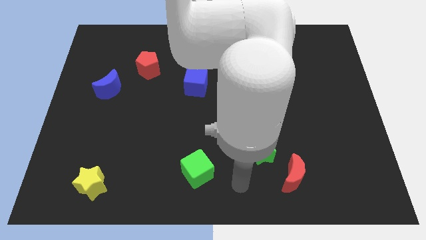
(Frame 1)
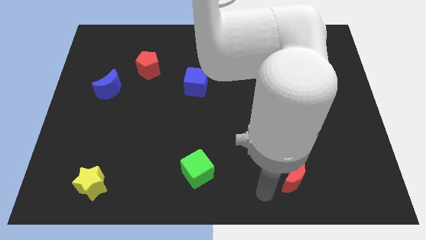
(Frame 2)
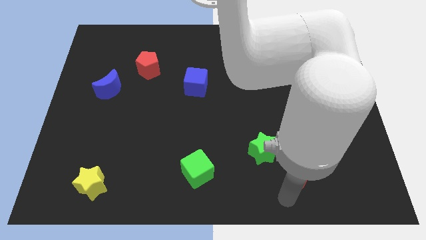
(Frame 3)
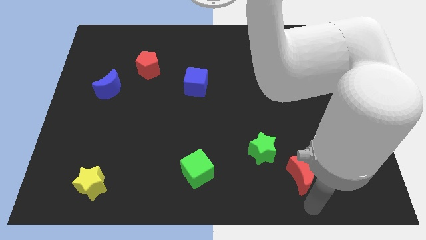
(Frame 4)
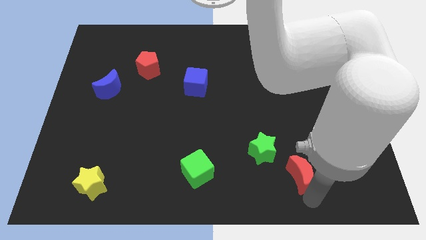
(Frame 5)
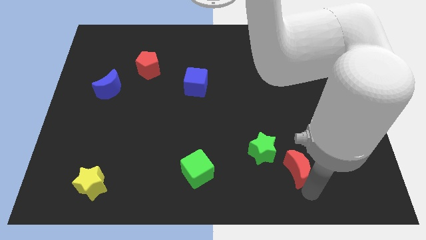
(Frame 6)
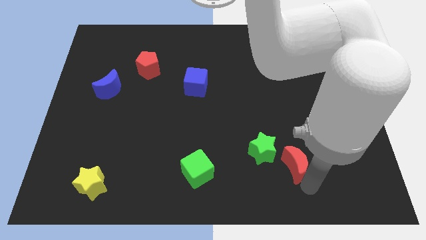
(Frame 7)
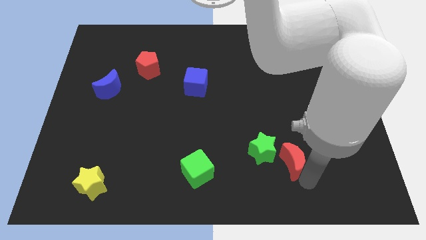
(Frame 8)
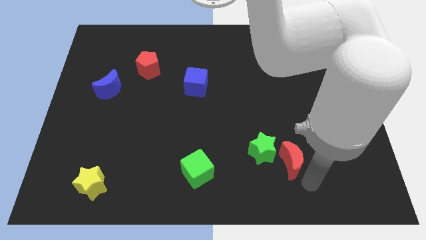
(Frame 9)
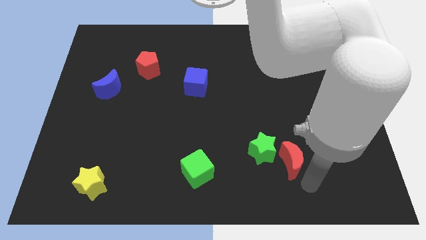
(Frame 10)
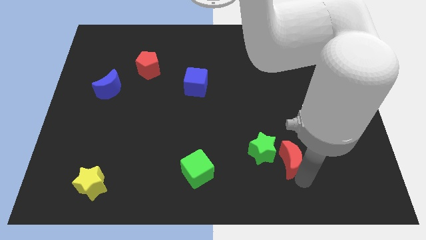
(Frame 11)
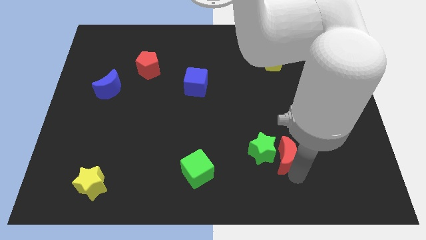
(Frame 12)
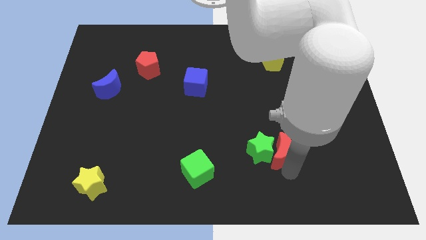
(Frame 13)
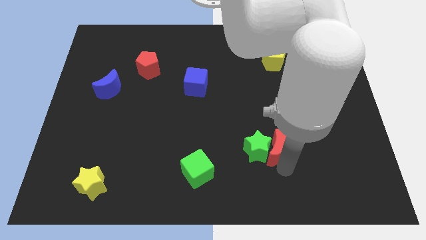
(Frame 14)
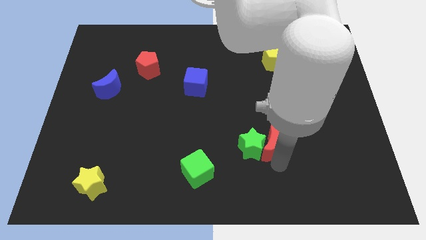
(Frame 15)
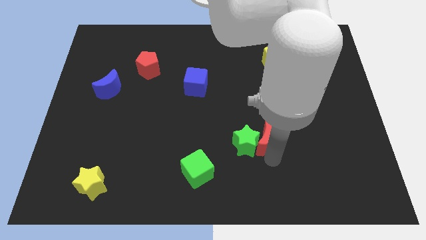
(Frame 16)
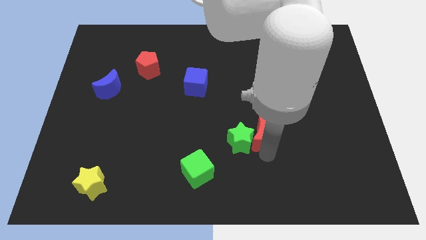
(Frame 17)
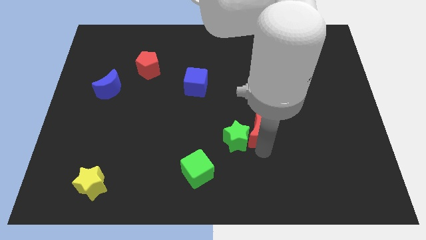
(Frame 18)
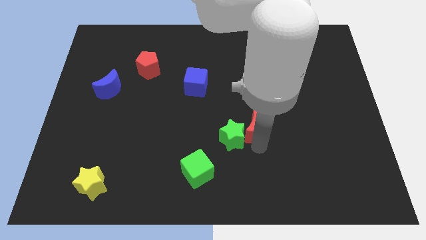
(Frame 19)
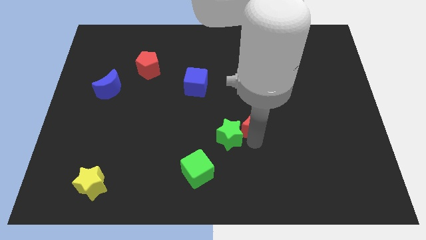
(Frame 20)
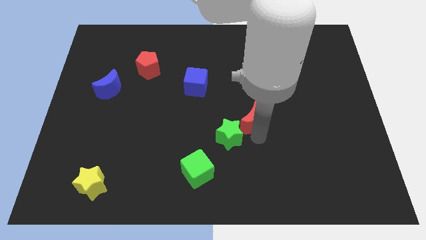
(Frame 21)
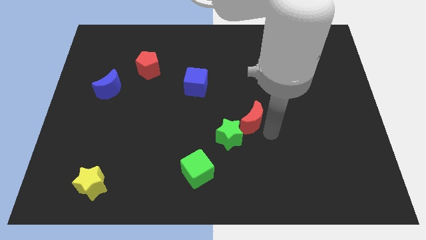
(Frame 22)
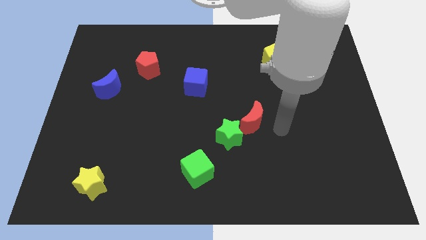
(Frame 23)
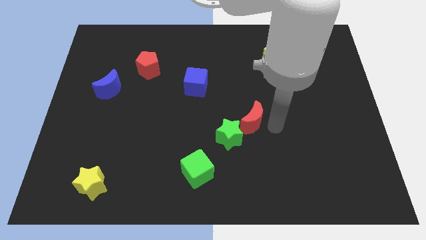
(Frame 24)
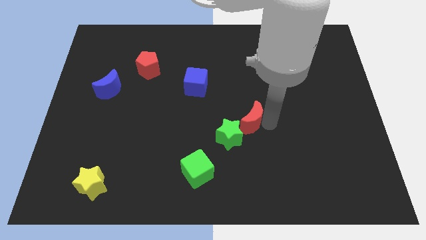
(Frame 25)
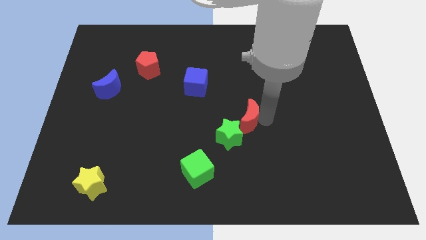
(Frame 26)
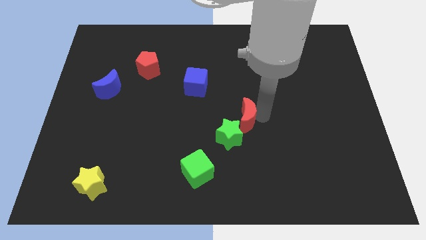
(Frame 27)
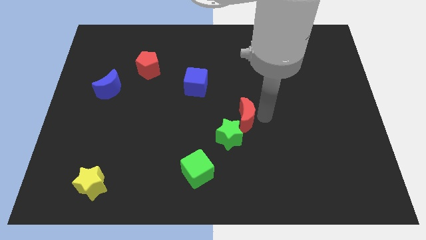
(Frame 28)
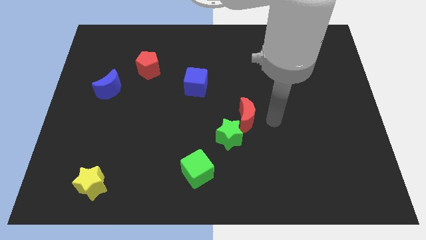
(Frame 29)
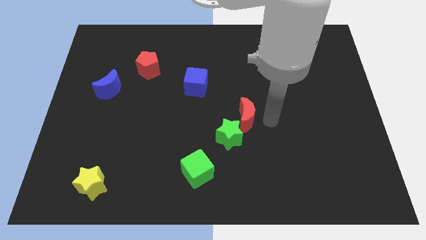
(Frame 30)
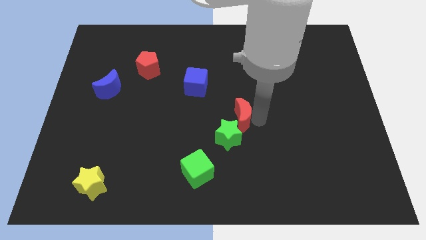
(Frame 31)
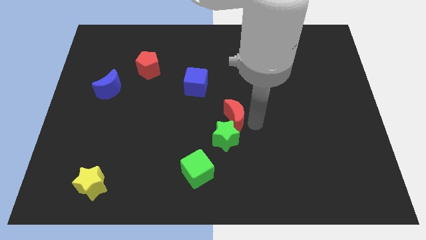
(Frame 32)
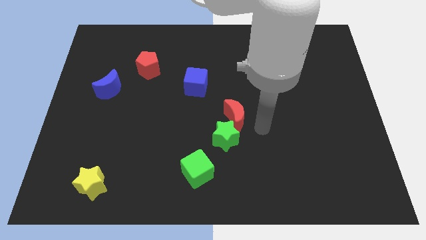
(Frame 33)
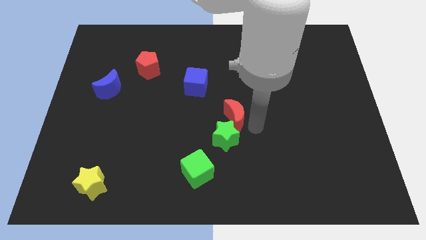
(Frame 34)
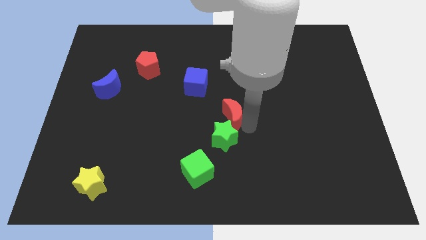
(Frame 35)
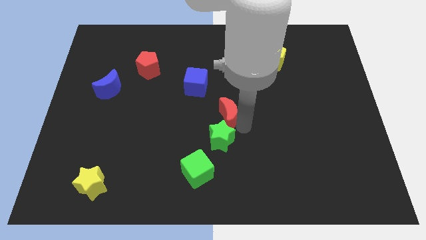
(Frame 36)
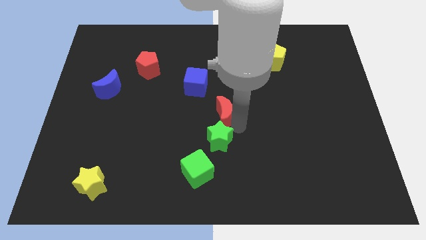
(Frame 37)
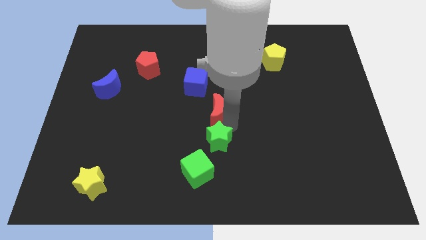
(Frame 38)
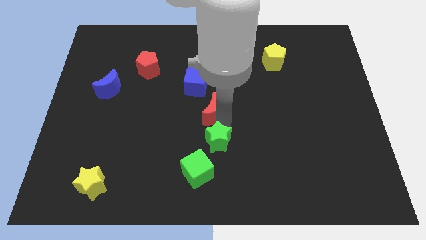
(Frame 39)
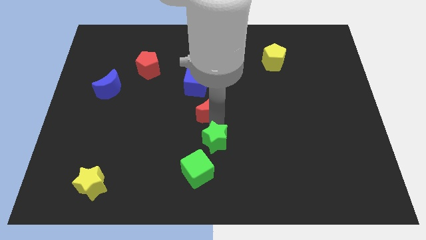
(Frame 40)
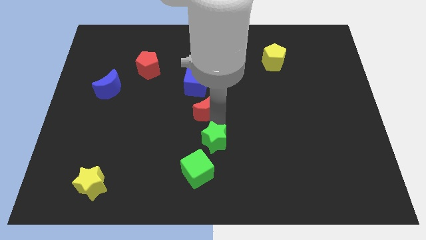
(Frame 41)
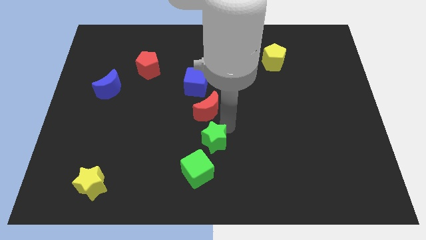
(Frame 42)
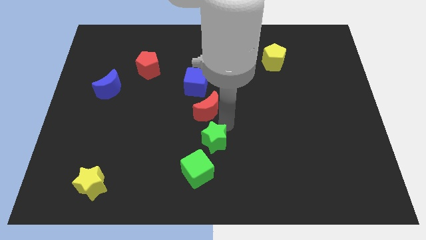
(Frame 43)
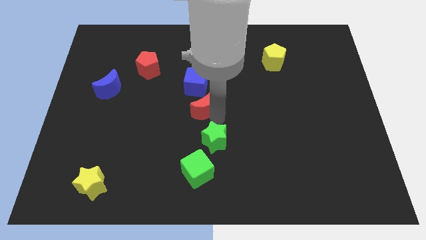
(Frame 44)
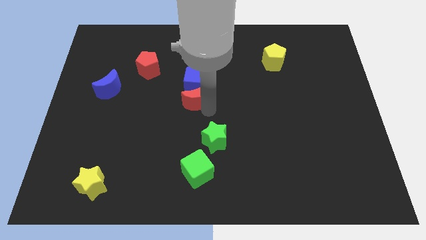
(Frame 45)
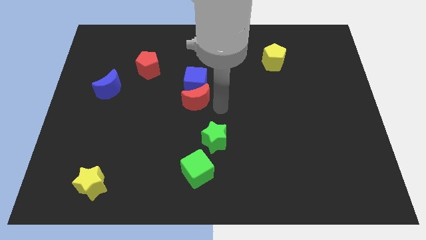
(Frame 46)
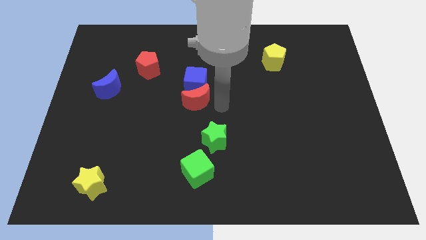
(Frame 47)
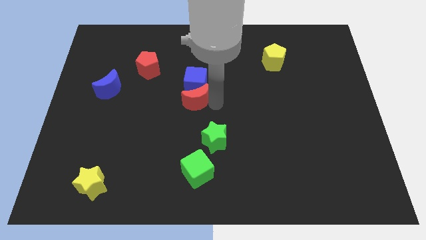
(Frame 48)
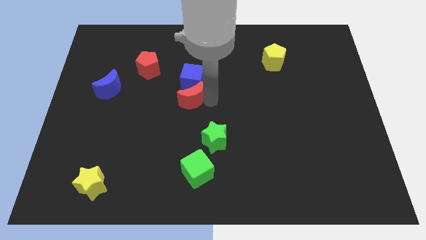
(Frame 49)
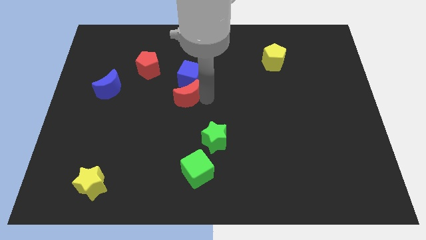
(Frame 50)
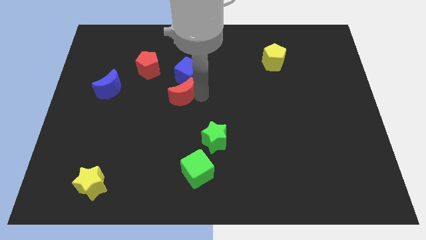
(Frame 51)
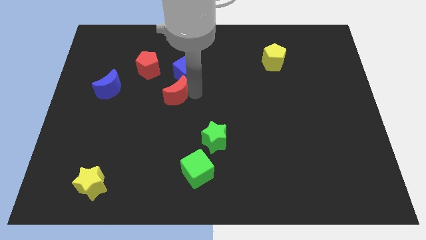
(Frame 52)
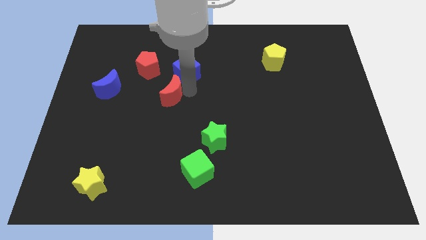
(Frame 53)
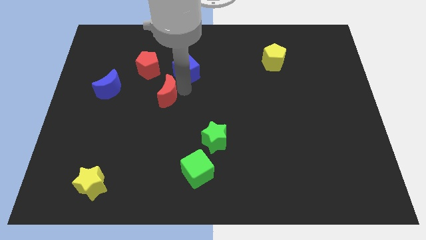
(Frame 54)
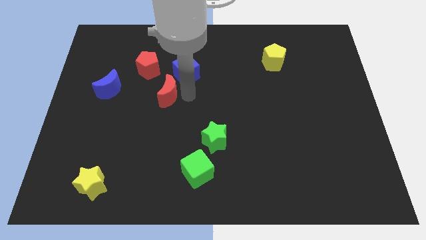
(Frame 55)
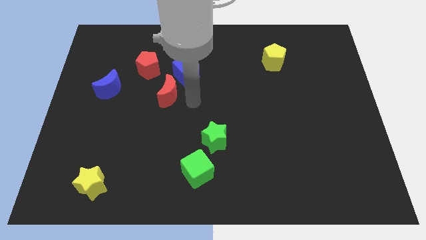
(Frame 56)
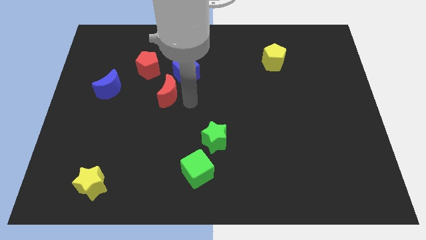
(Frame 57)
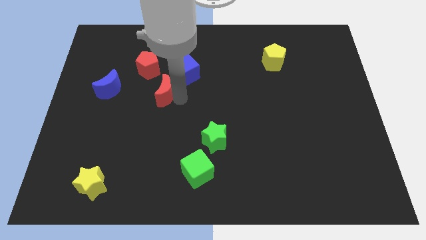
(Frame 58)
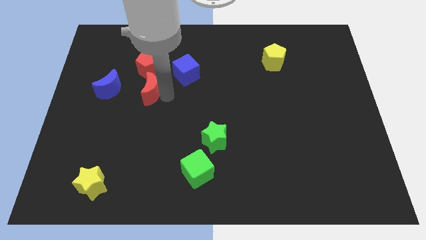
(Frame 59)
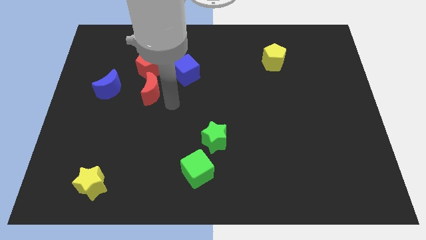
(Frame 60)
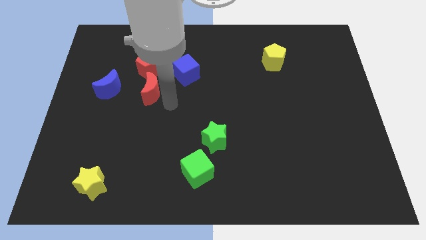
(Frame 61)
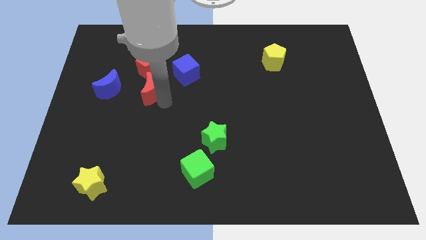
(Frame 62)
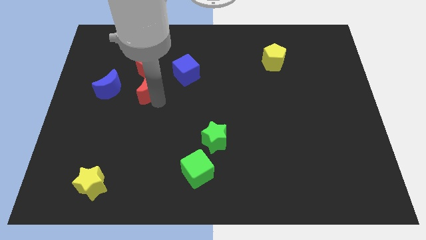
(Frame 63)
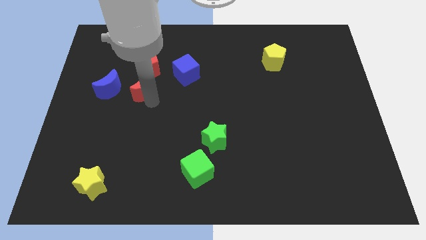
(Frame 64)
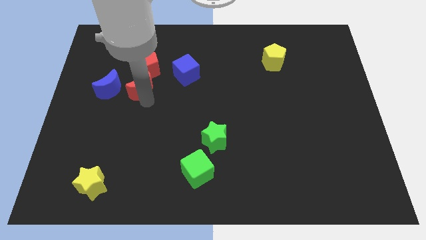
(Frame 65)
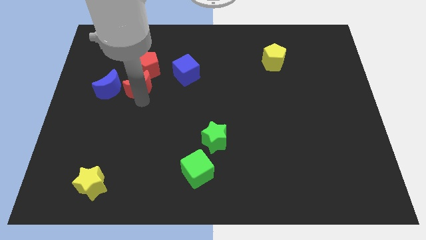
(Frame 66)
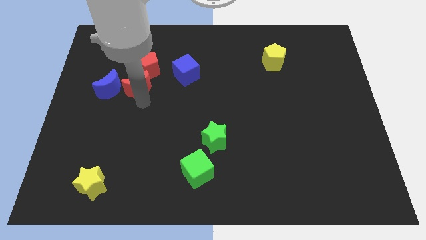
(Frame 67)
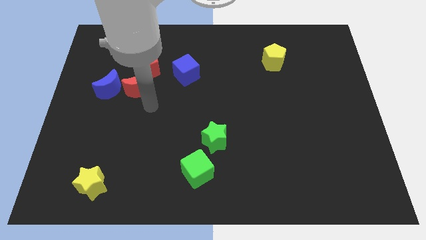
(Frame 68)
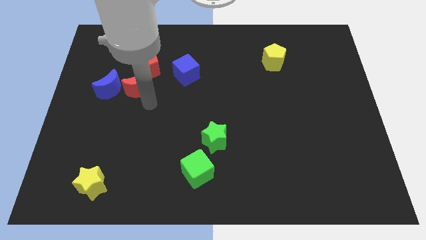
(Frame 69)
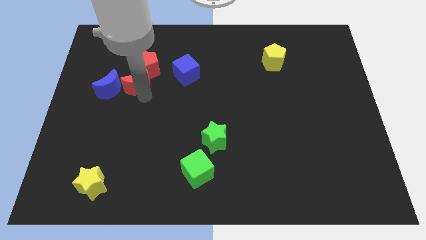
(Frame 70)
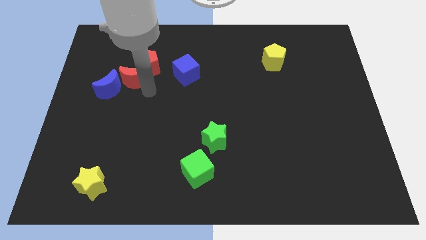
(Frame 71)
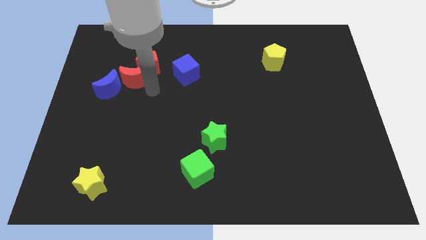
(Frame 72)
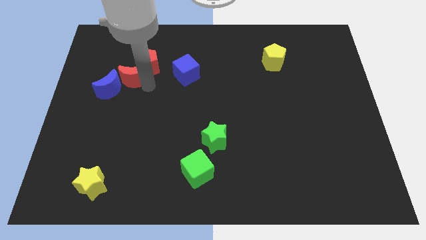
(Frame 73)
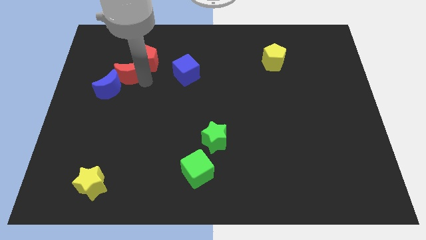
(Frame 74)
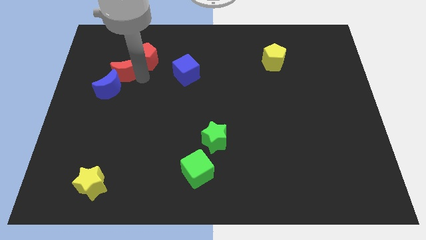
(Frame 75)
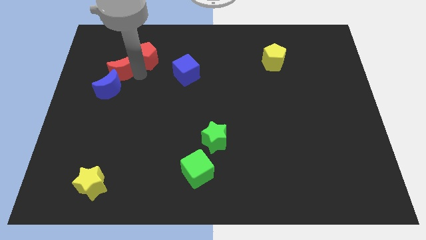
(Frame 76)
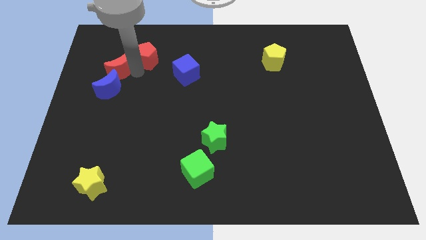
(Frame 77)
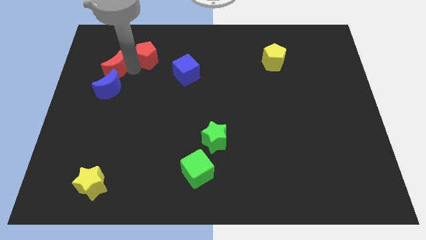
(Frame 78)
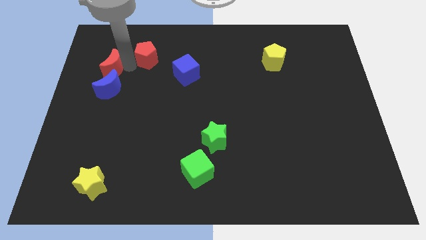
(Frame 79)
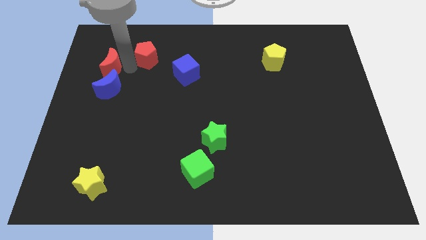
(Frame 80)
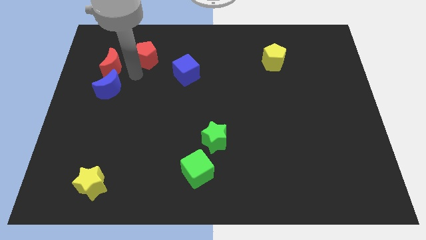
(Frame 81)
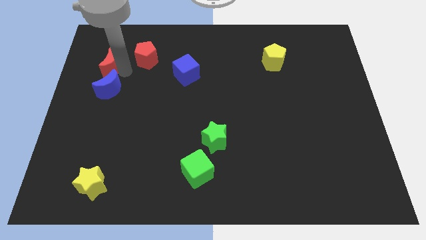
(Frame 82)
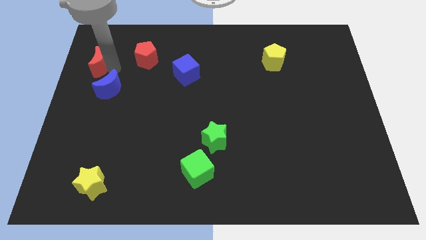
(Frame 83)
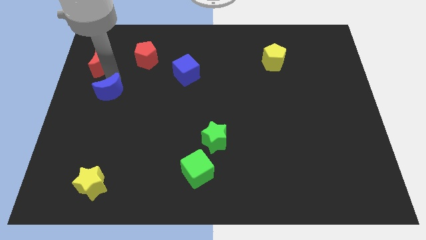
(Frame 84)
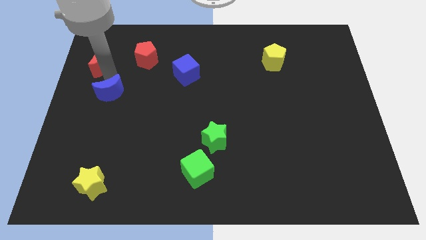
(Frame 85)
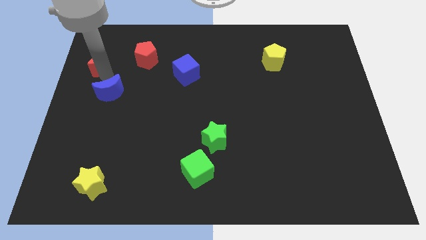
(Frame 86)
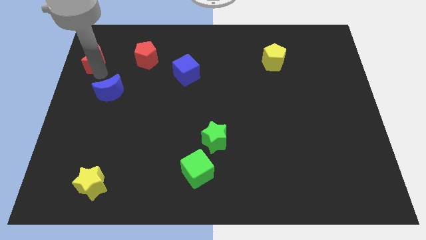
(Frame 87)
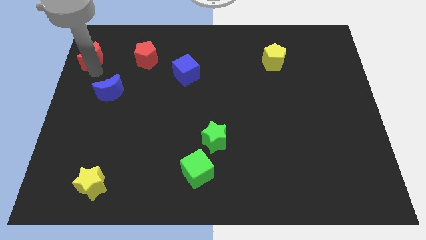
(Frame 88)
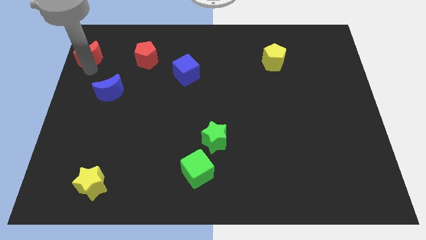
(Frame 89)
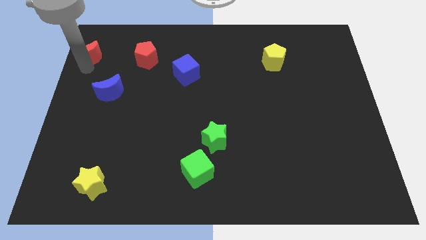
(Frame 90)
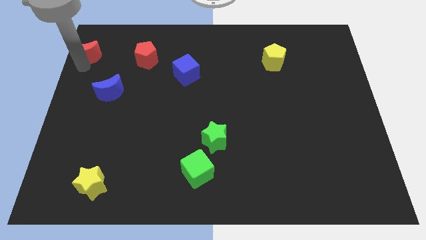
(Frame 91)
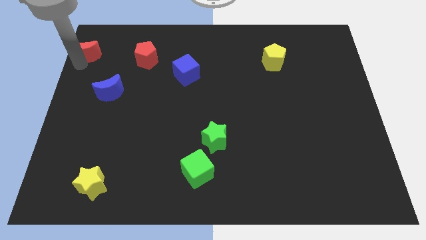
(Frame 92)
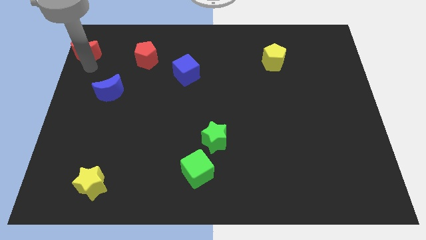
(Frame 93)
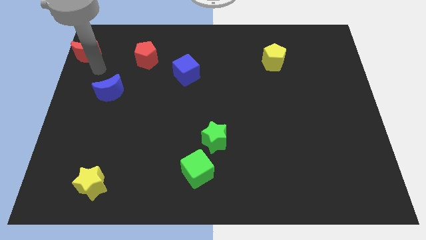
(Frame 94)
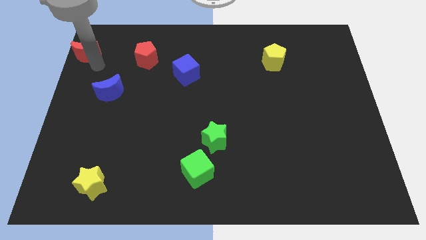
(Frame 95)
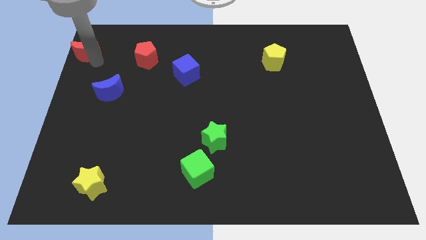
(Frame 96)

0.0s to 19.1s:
slide the red moon to the upper left corner
